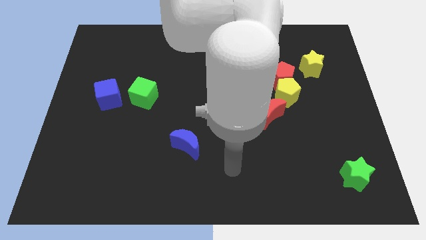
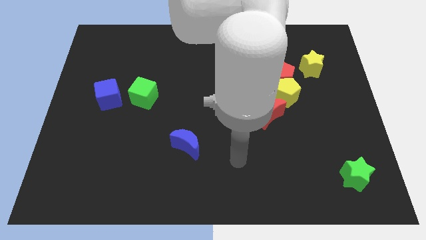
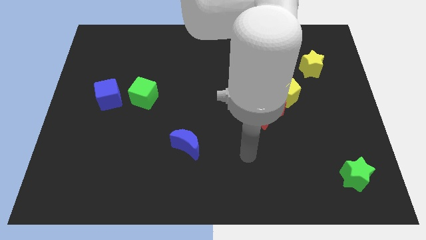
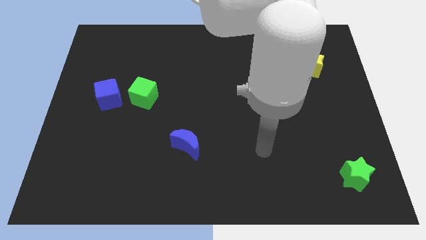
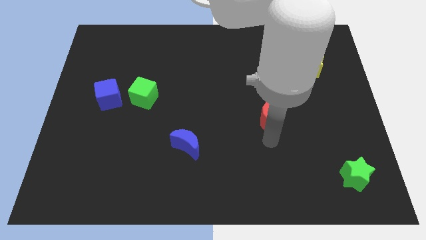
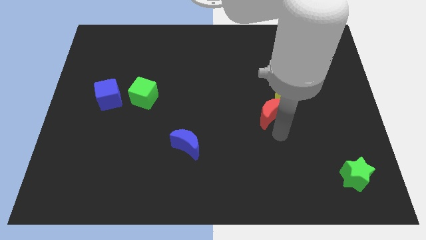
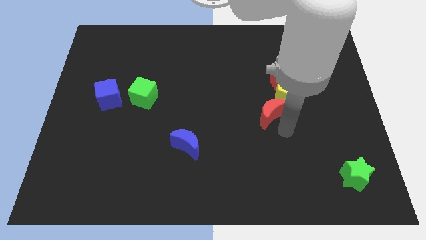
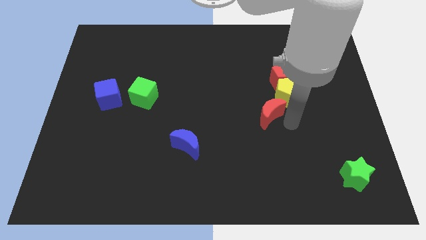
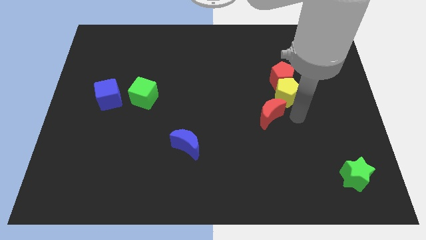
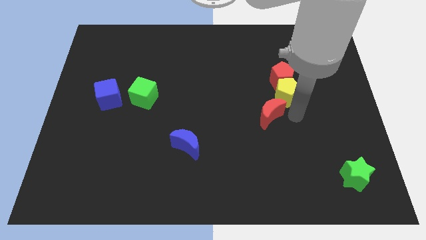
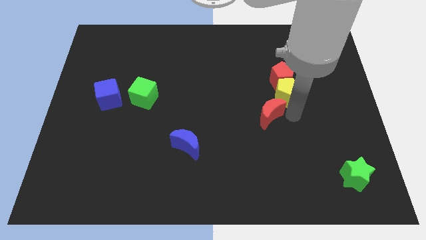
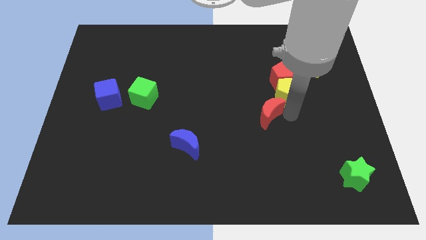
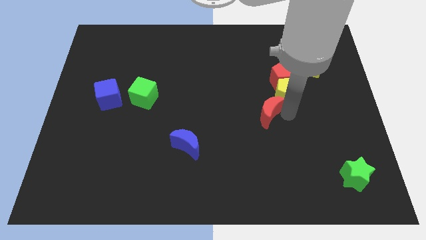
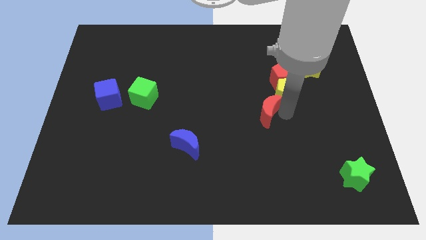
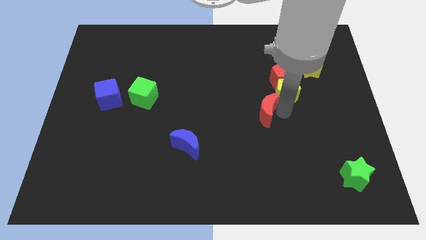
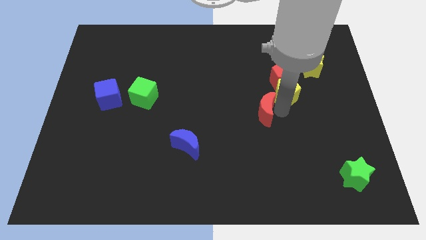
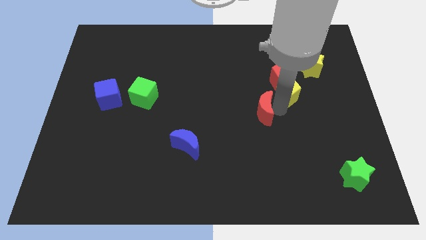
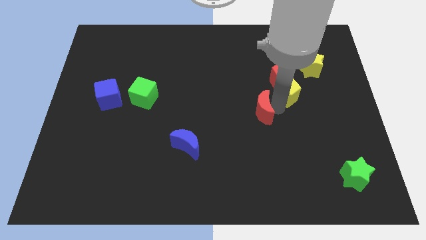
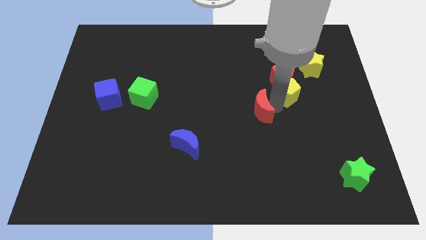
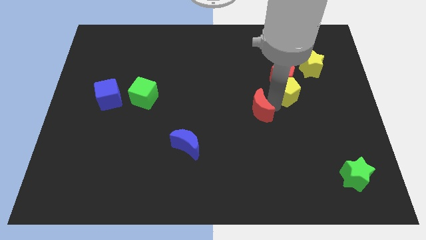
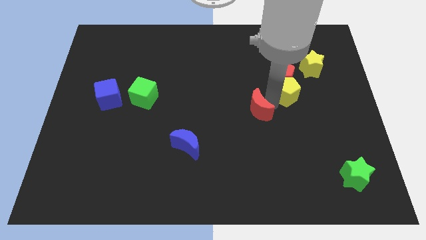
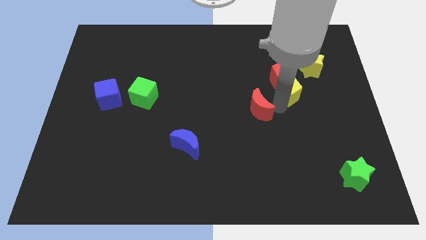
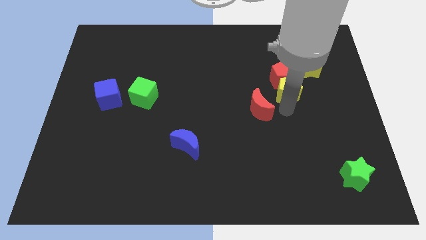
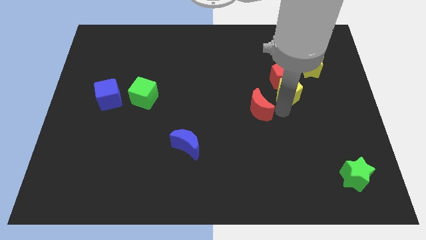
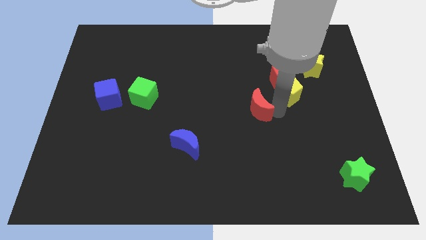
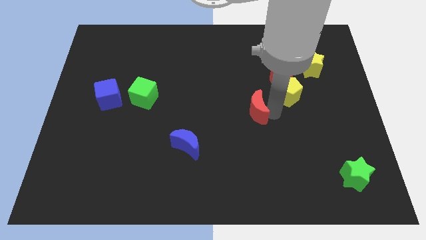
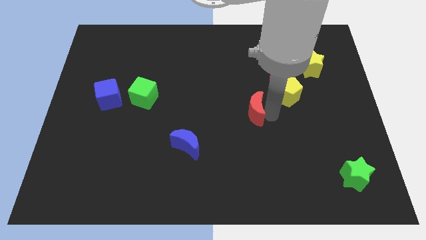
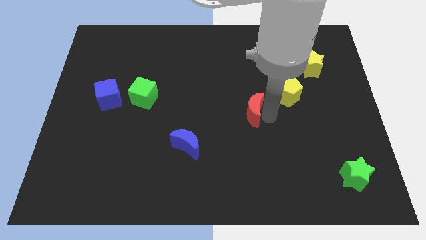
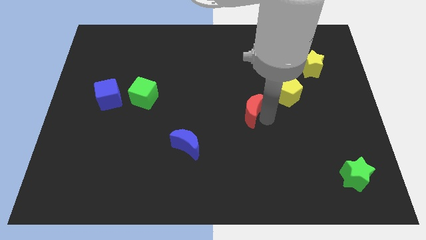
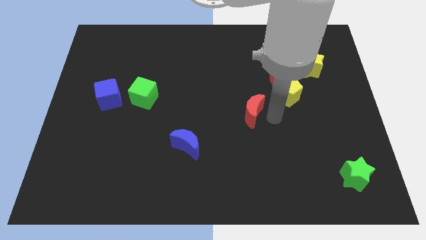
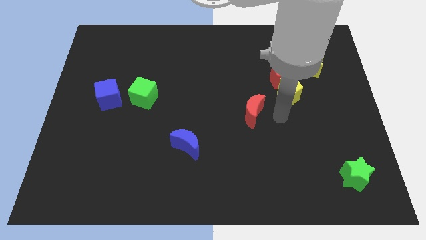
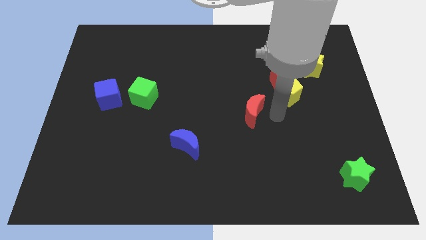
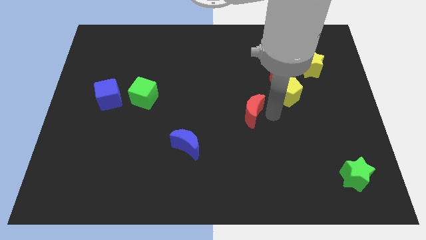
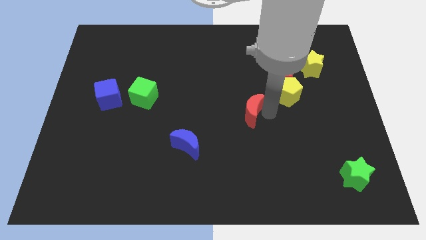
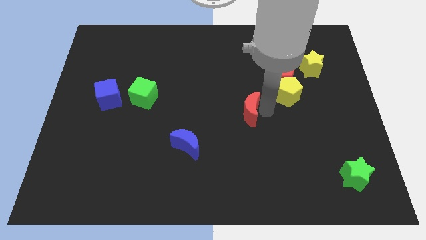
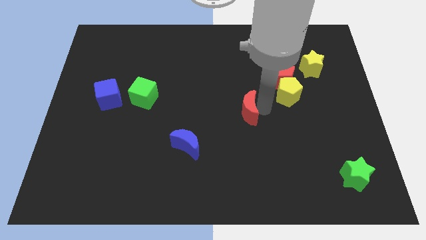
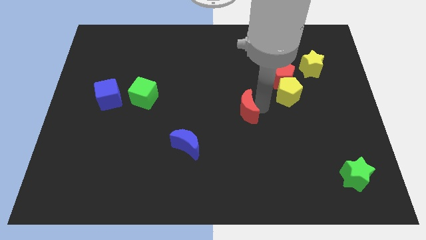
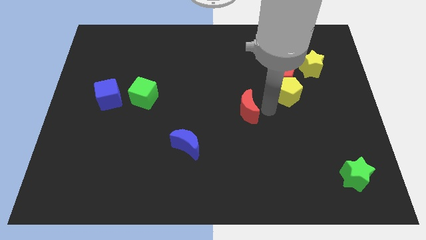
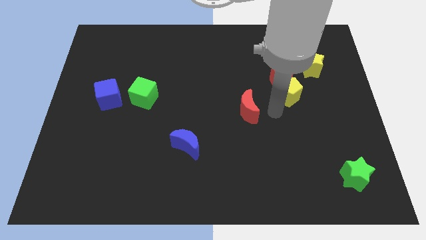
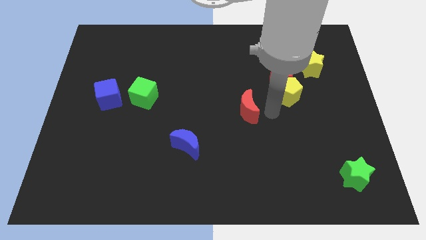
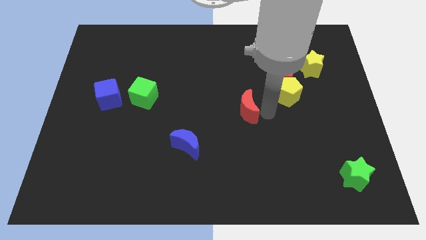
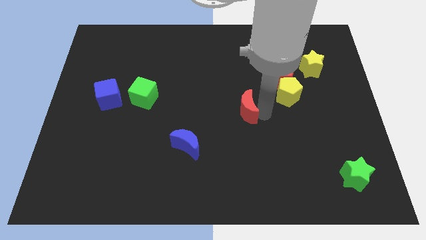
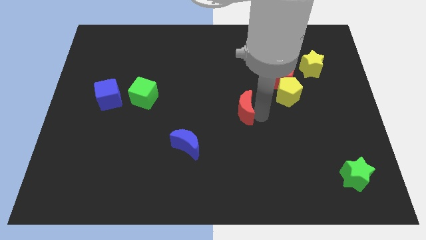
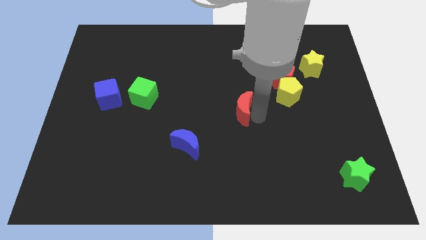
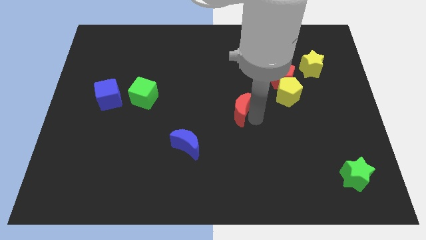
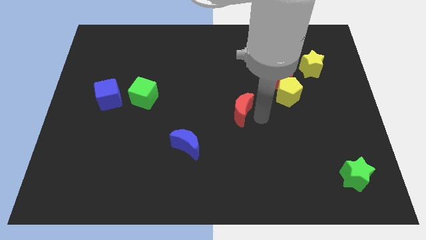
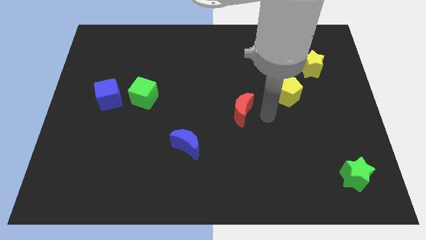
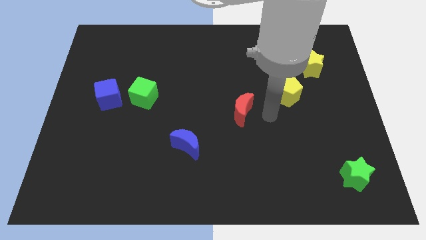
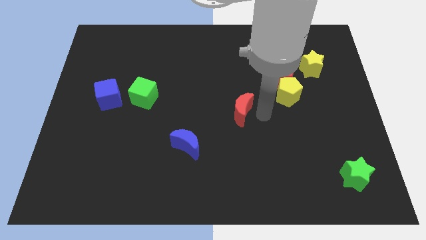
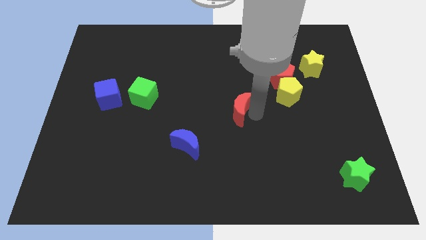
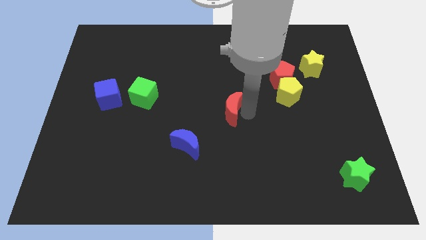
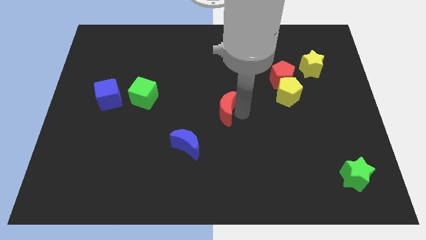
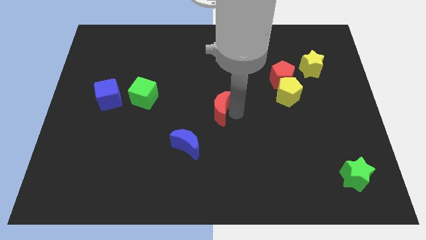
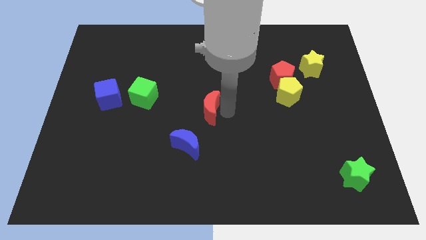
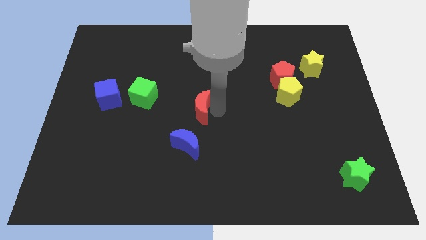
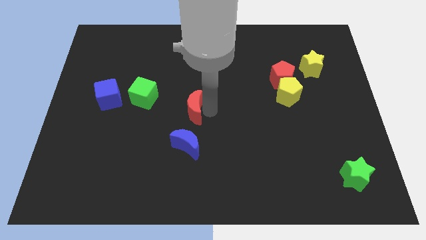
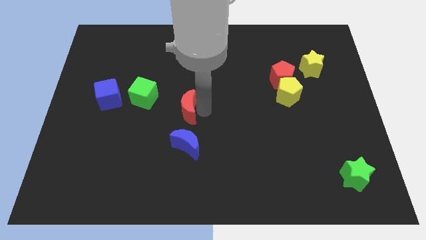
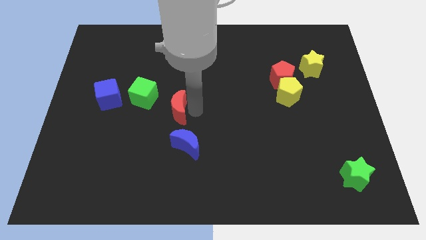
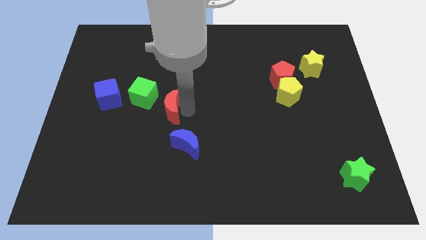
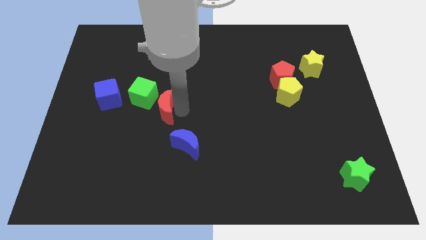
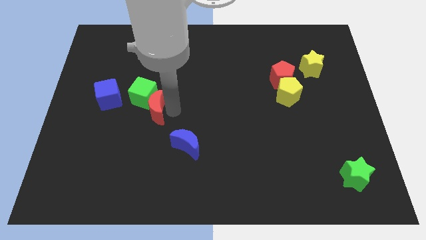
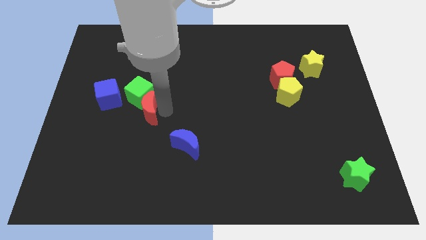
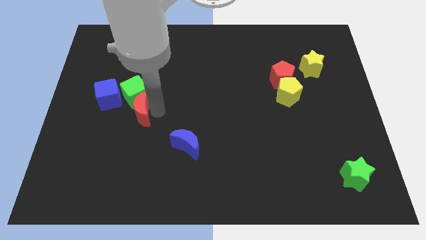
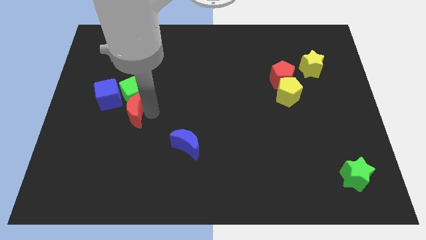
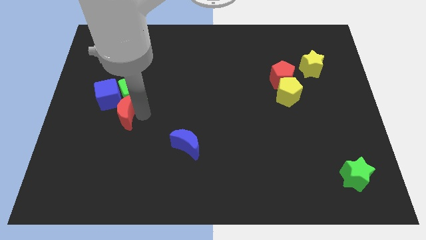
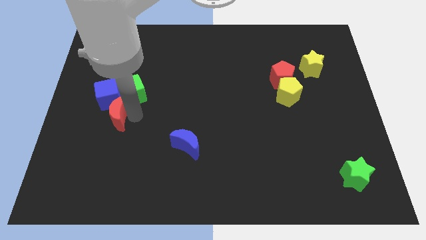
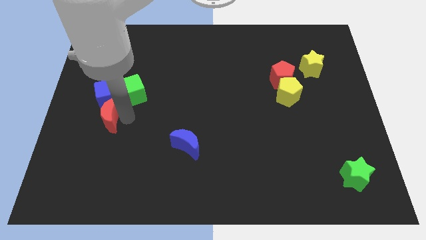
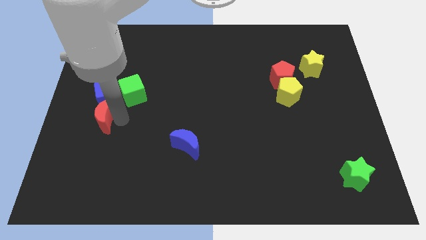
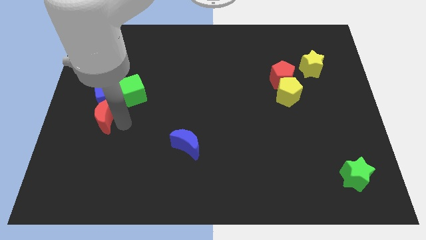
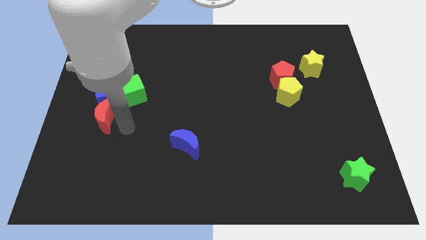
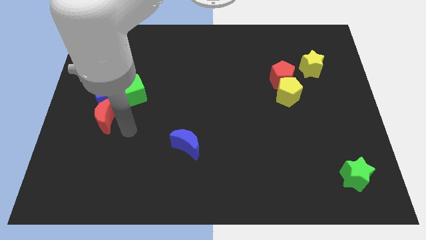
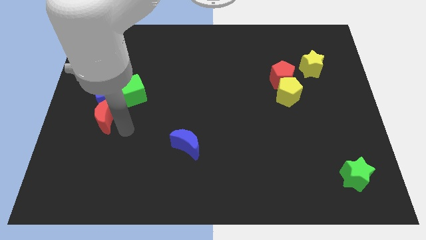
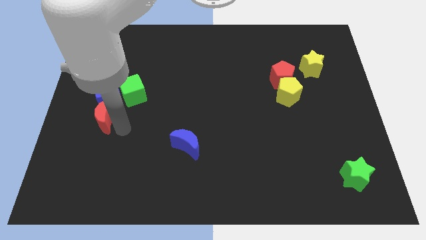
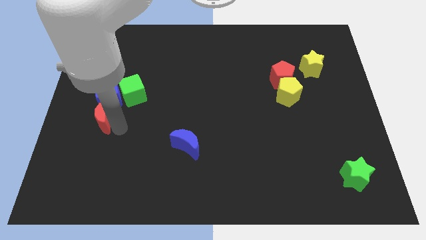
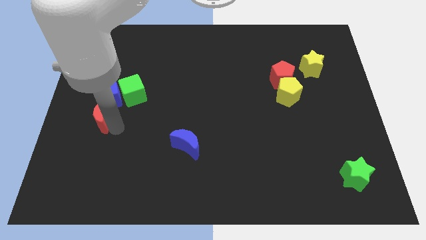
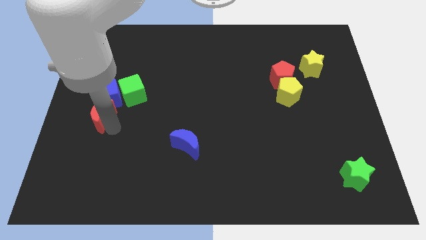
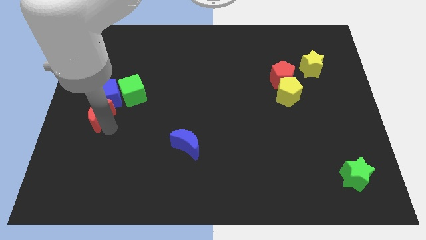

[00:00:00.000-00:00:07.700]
move the red moon to the left side of the board
